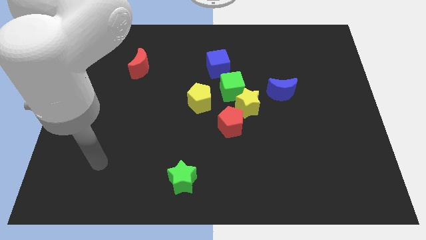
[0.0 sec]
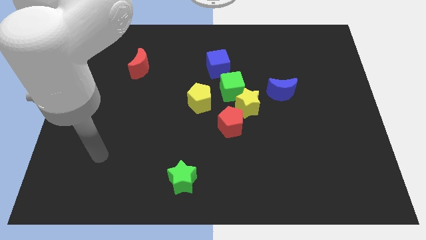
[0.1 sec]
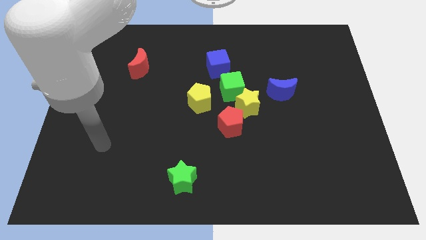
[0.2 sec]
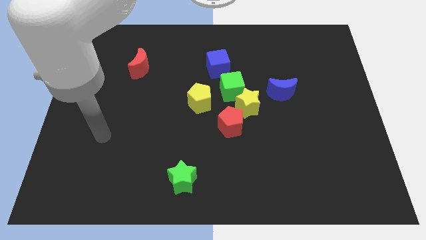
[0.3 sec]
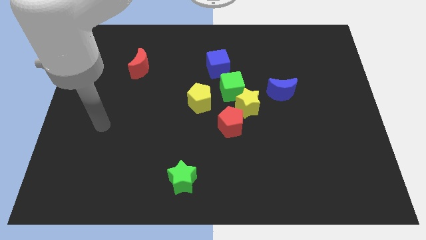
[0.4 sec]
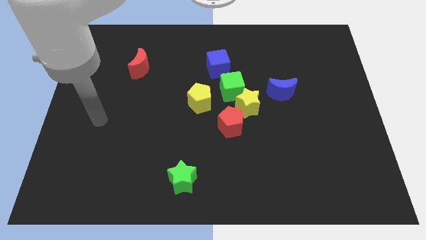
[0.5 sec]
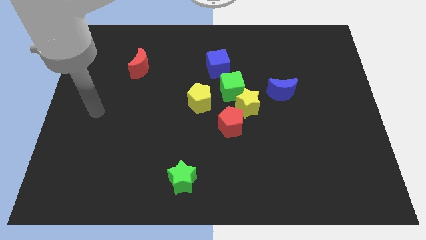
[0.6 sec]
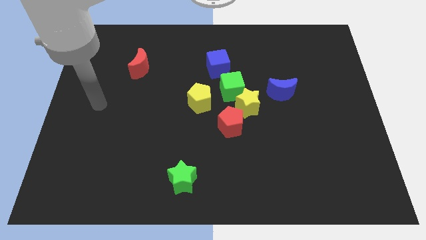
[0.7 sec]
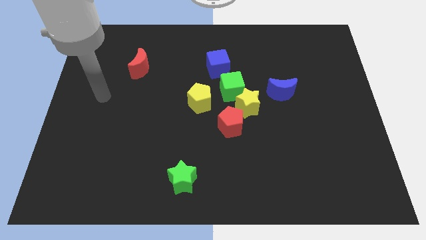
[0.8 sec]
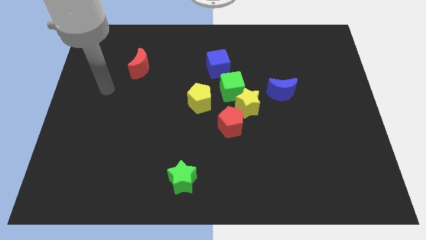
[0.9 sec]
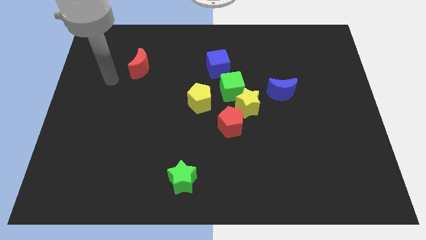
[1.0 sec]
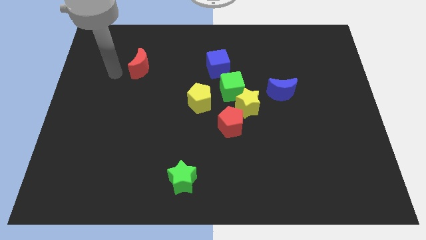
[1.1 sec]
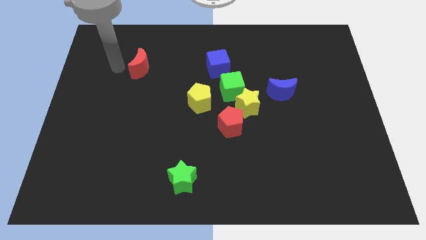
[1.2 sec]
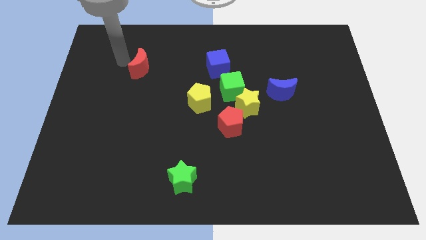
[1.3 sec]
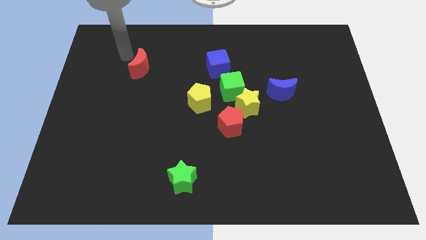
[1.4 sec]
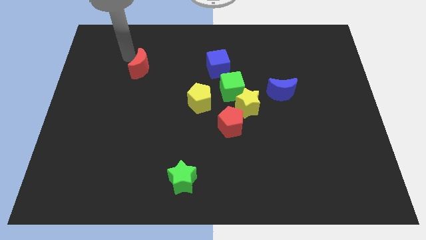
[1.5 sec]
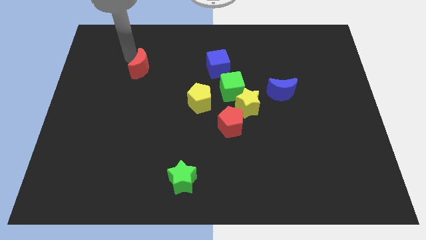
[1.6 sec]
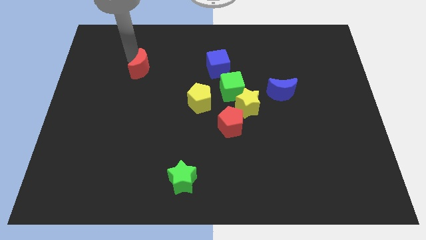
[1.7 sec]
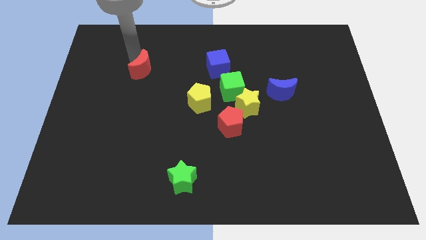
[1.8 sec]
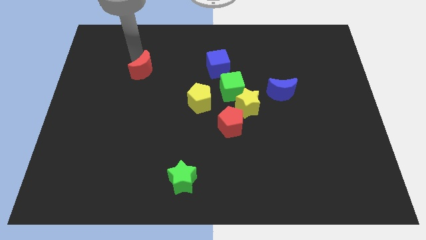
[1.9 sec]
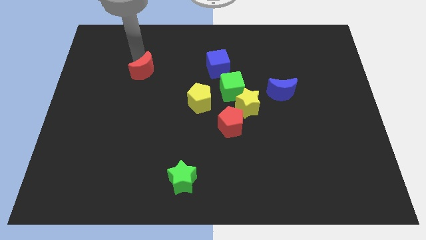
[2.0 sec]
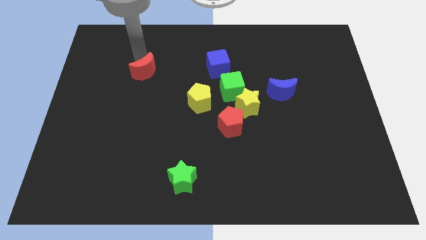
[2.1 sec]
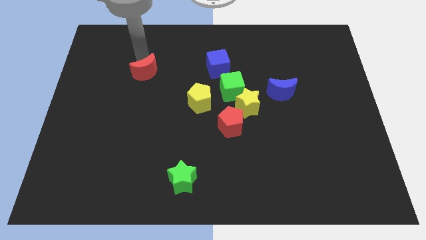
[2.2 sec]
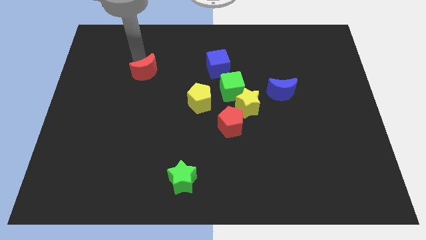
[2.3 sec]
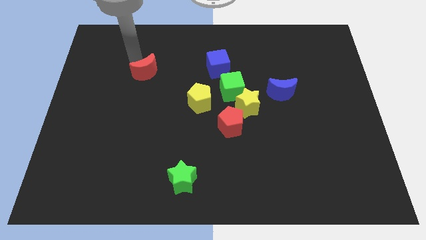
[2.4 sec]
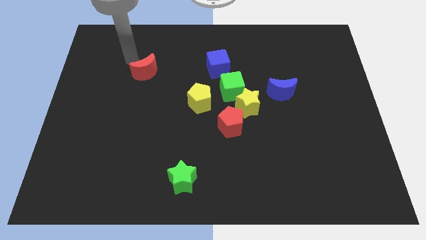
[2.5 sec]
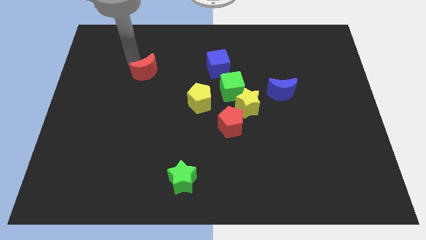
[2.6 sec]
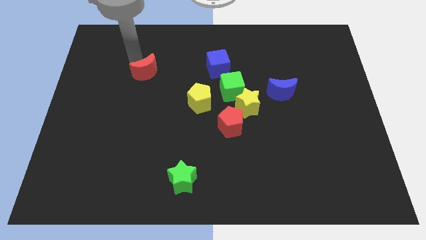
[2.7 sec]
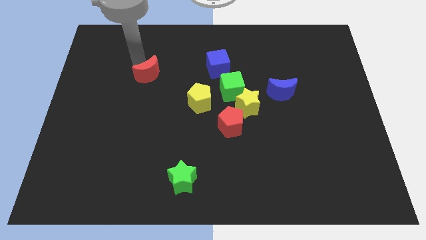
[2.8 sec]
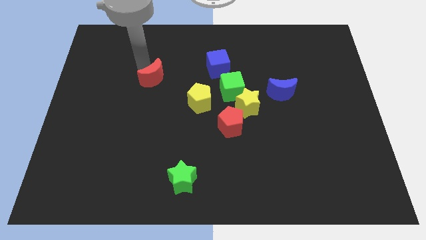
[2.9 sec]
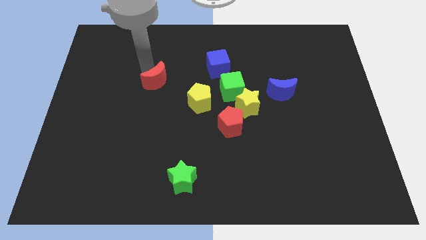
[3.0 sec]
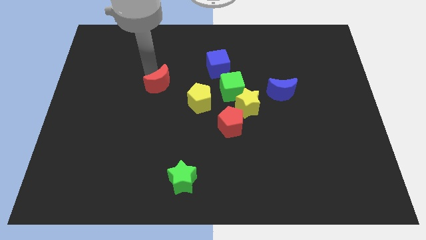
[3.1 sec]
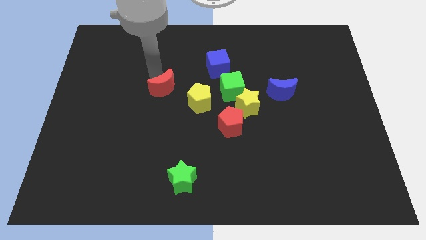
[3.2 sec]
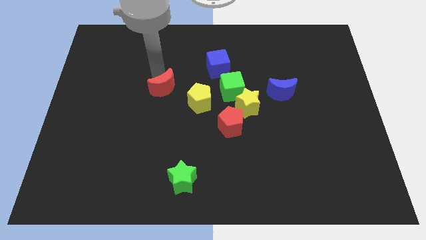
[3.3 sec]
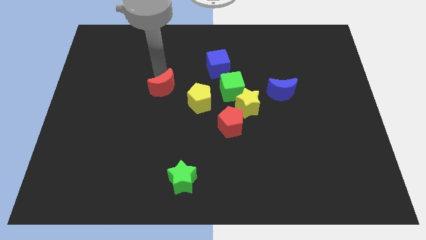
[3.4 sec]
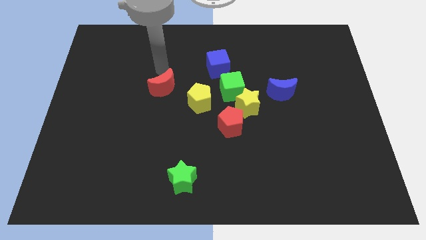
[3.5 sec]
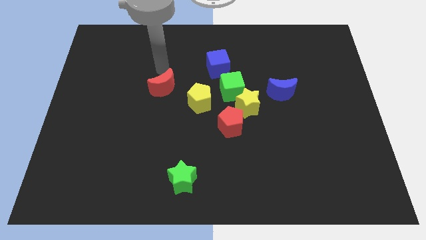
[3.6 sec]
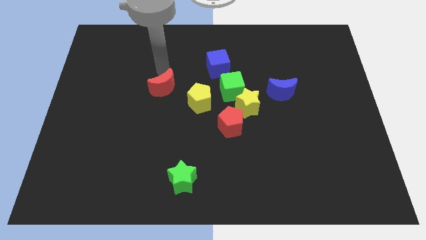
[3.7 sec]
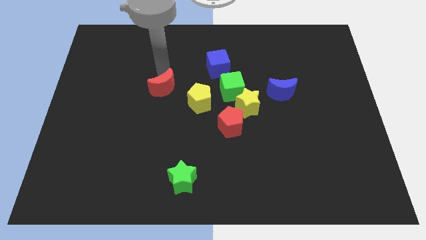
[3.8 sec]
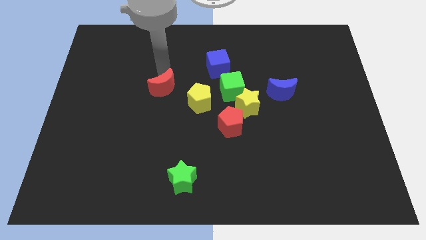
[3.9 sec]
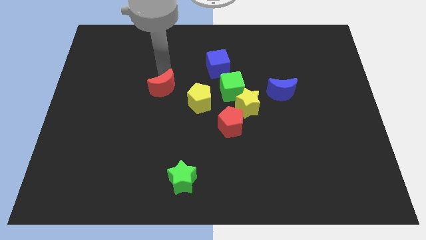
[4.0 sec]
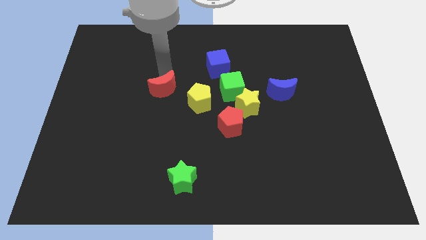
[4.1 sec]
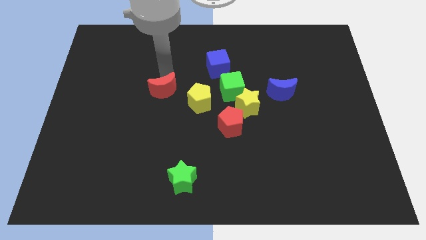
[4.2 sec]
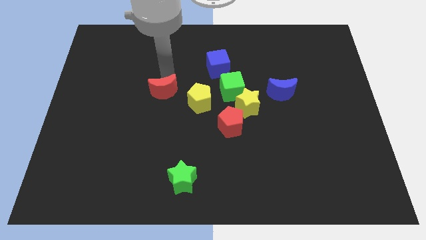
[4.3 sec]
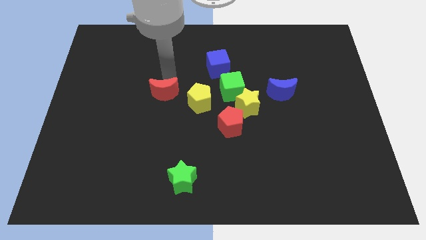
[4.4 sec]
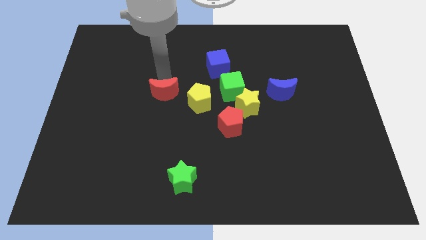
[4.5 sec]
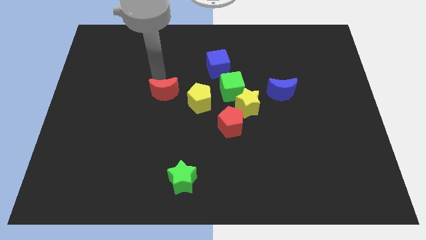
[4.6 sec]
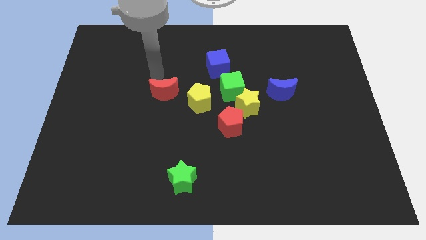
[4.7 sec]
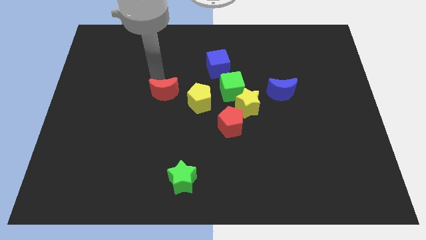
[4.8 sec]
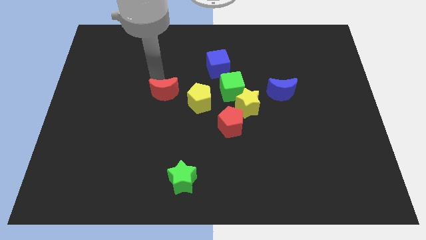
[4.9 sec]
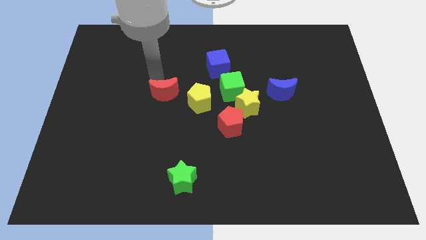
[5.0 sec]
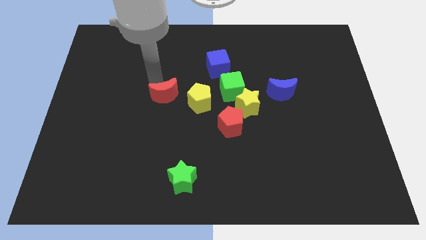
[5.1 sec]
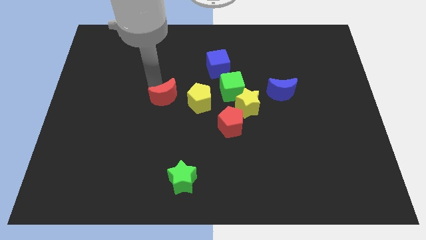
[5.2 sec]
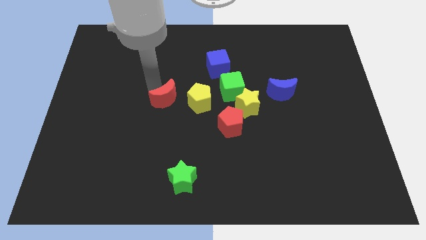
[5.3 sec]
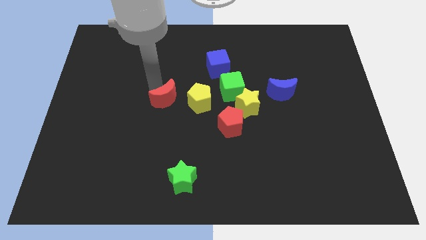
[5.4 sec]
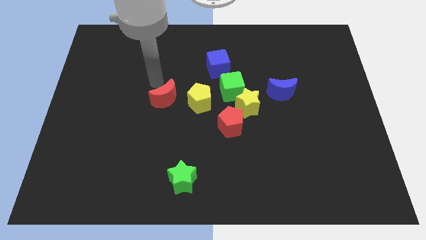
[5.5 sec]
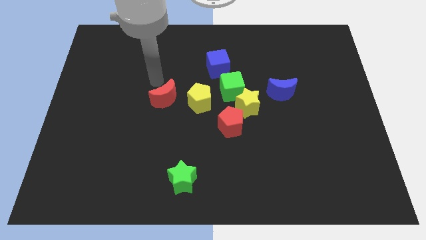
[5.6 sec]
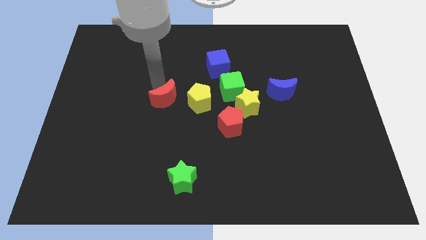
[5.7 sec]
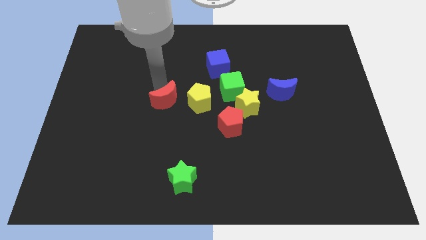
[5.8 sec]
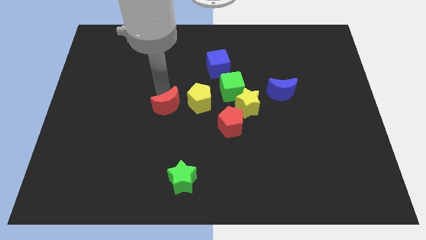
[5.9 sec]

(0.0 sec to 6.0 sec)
put the red moon to the bottom left side of the yellow pentagon

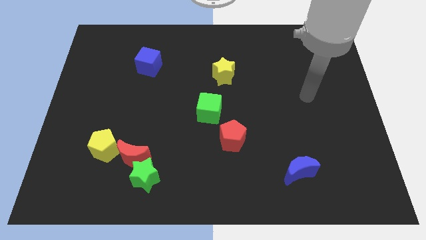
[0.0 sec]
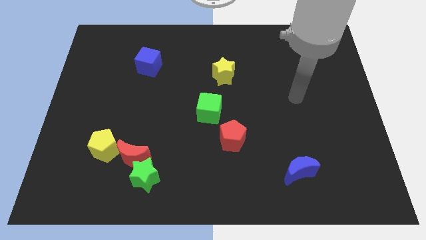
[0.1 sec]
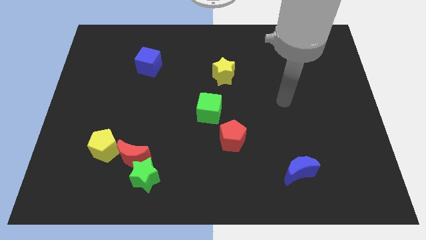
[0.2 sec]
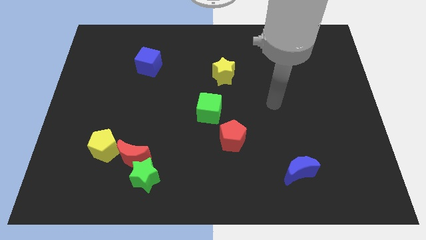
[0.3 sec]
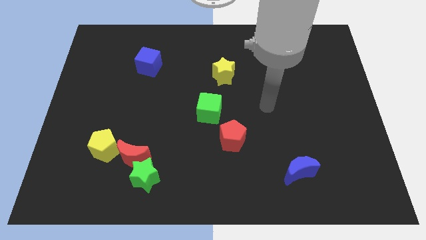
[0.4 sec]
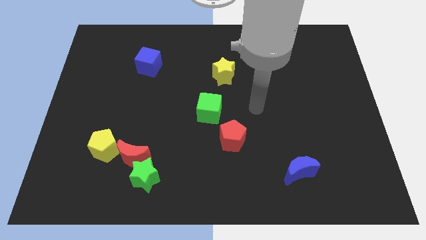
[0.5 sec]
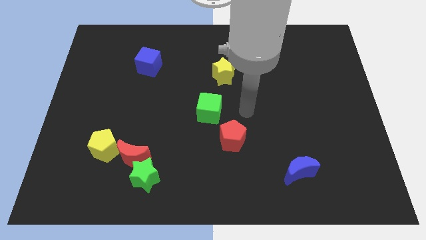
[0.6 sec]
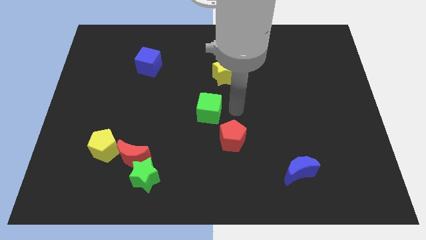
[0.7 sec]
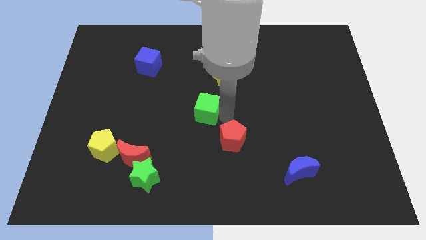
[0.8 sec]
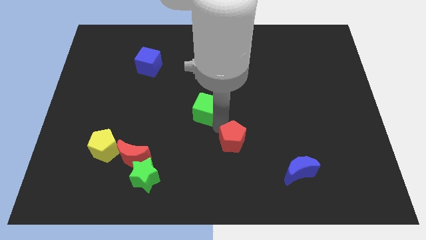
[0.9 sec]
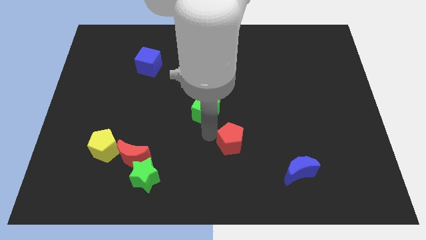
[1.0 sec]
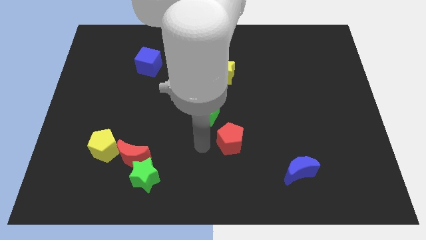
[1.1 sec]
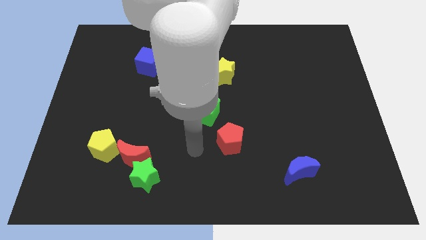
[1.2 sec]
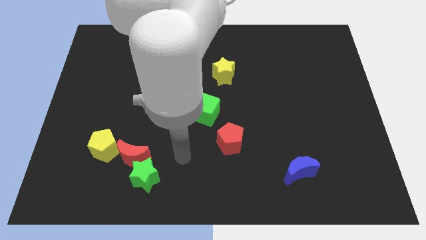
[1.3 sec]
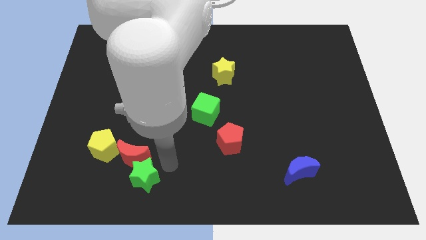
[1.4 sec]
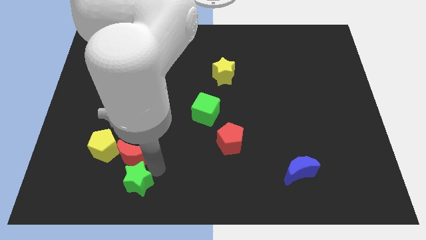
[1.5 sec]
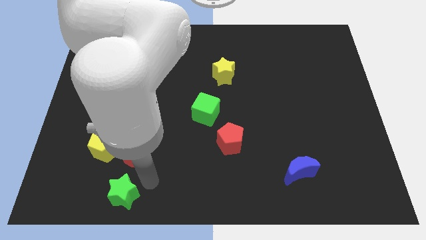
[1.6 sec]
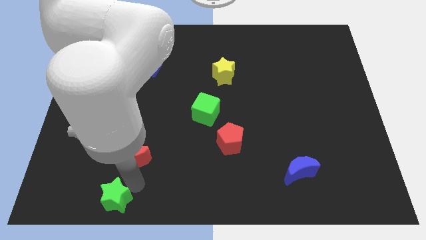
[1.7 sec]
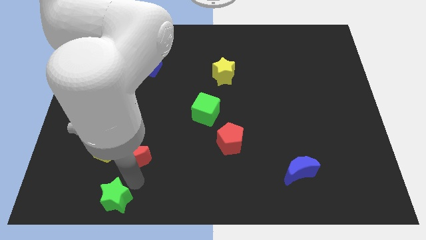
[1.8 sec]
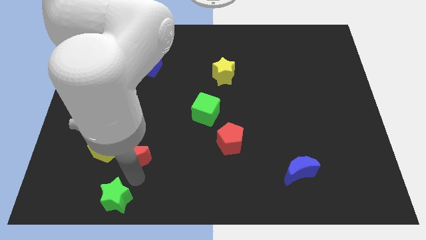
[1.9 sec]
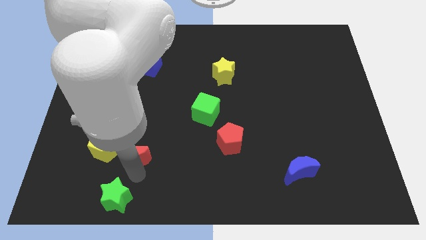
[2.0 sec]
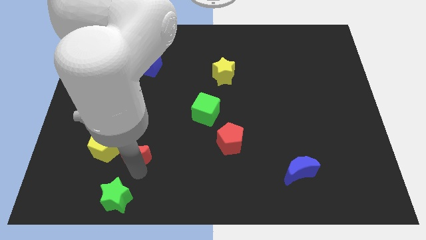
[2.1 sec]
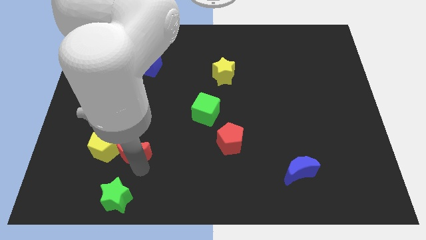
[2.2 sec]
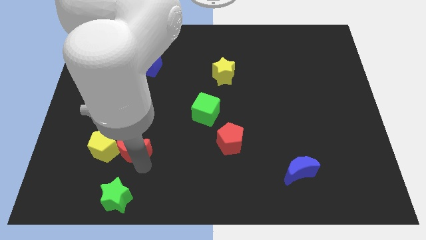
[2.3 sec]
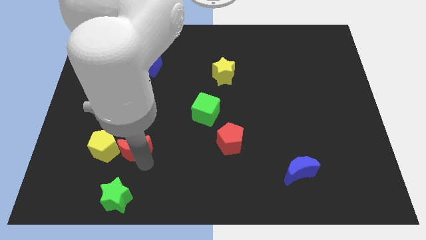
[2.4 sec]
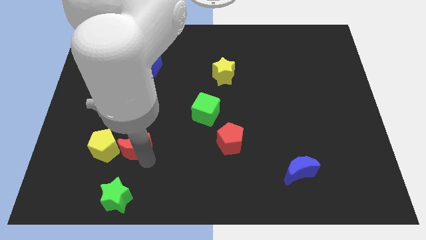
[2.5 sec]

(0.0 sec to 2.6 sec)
slide the red moon to the top right of the yellow pentagon
